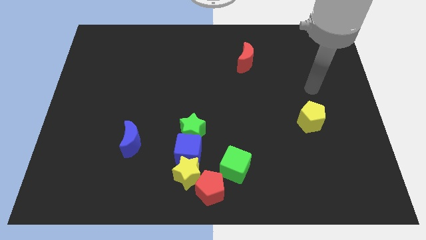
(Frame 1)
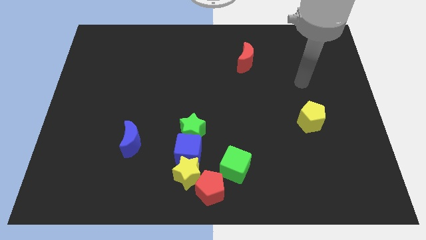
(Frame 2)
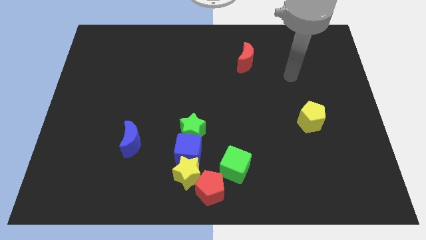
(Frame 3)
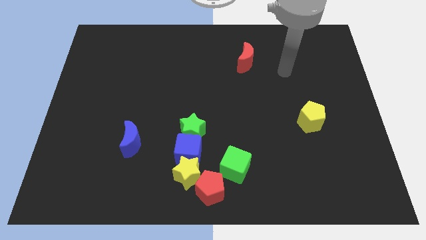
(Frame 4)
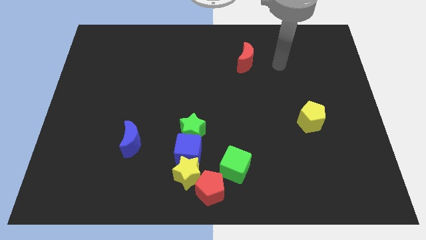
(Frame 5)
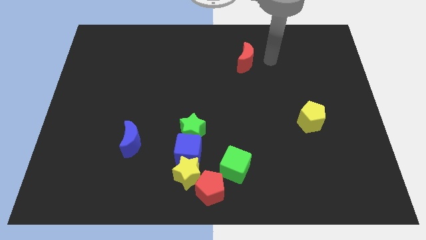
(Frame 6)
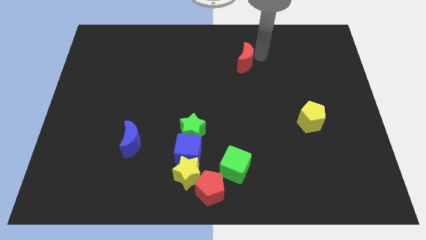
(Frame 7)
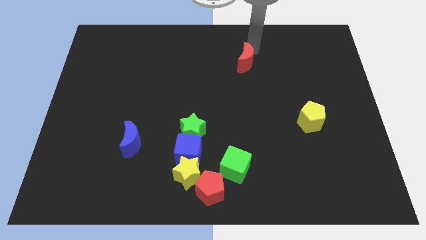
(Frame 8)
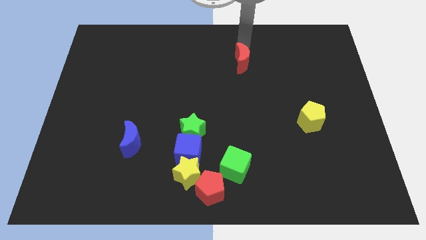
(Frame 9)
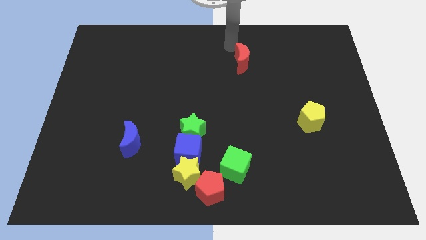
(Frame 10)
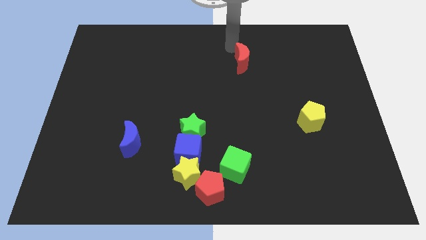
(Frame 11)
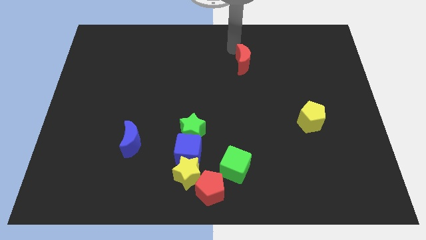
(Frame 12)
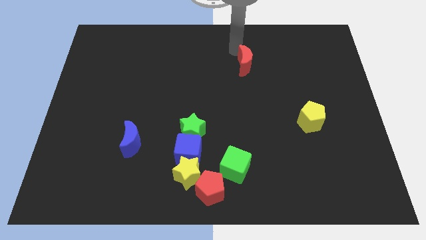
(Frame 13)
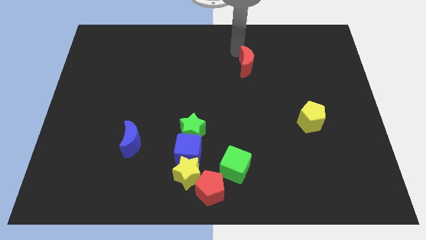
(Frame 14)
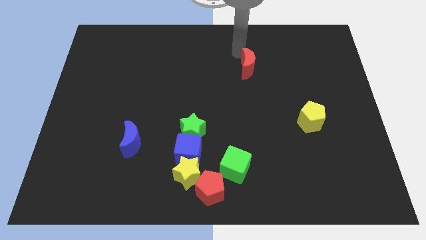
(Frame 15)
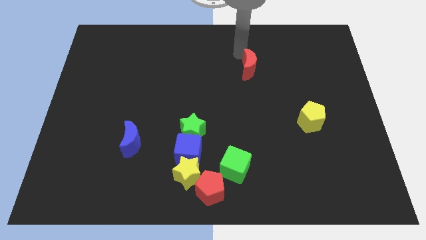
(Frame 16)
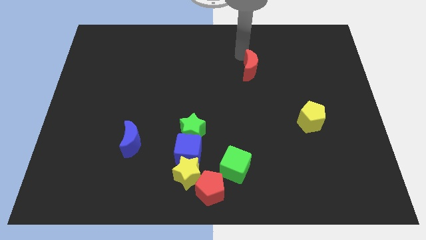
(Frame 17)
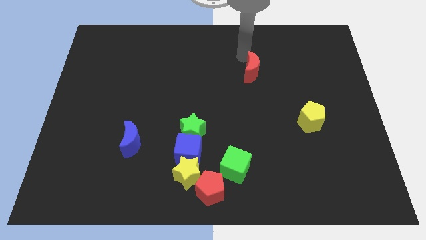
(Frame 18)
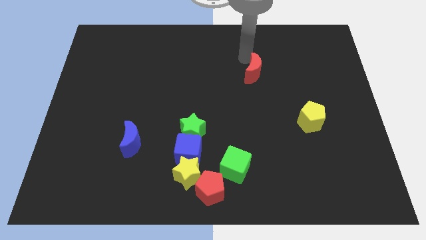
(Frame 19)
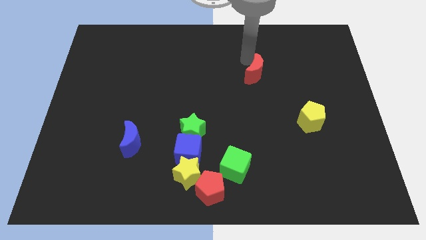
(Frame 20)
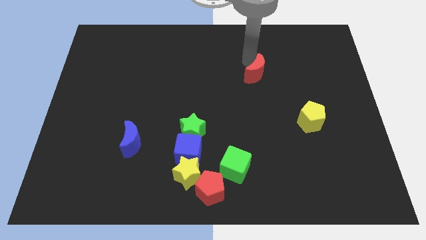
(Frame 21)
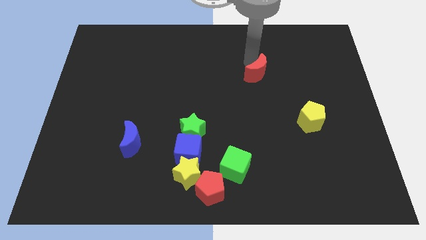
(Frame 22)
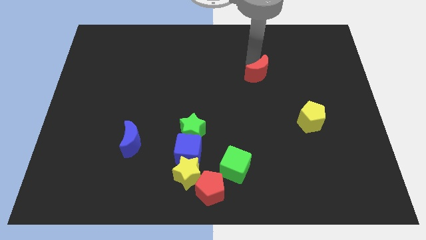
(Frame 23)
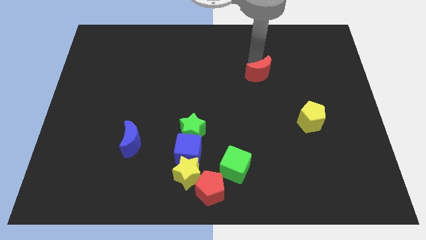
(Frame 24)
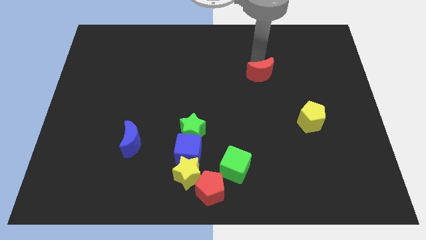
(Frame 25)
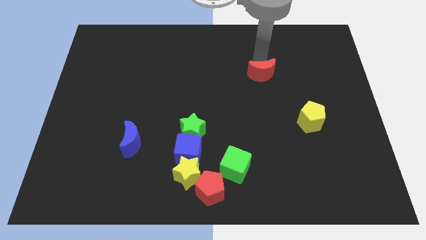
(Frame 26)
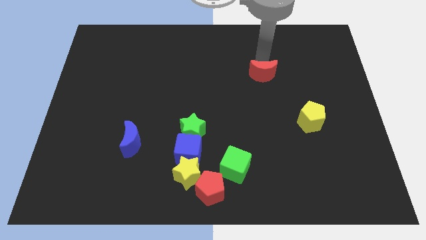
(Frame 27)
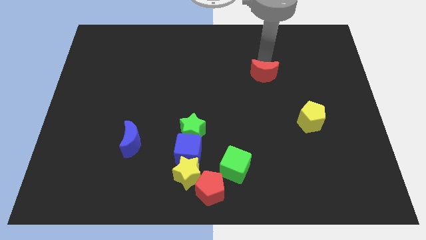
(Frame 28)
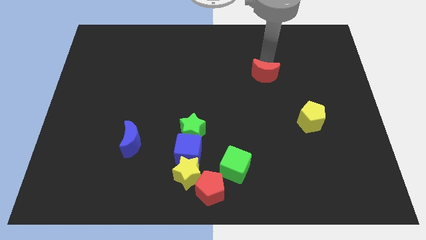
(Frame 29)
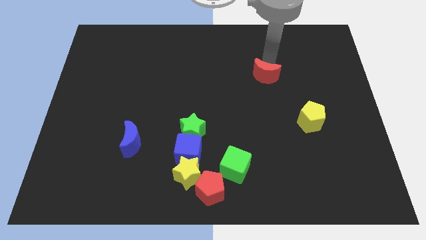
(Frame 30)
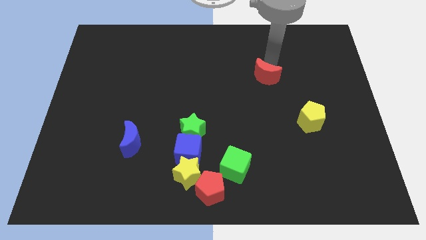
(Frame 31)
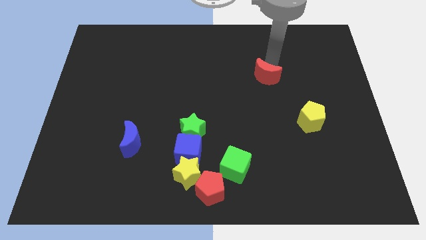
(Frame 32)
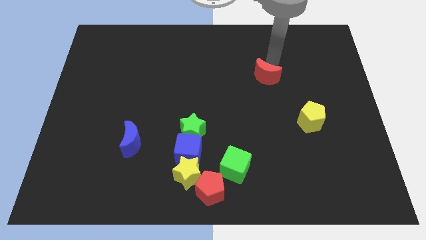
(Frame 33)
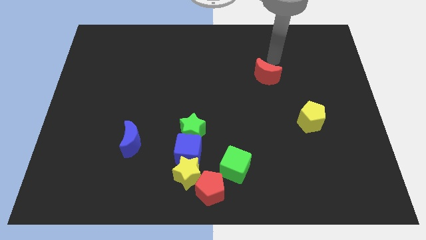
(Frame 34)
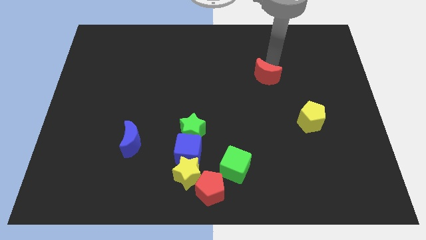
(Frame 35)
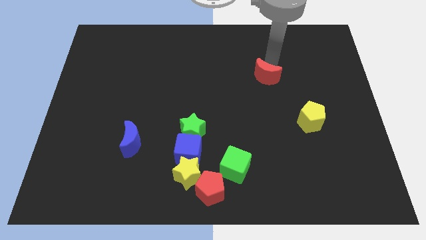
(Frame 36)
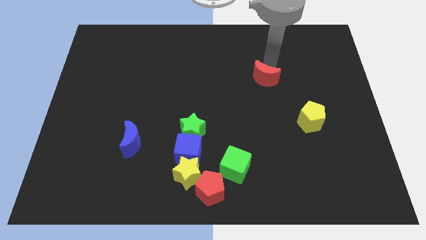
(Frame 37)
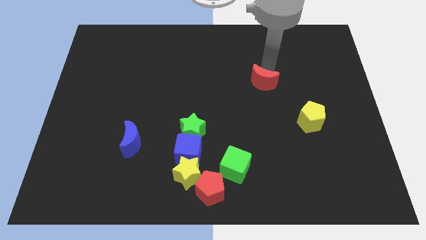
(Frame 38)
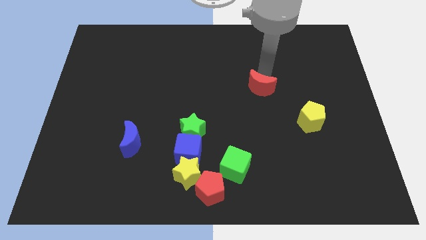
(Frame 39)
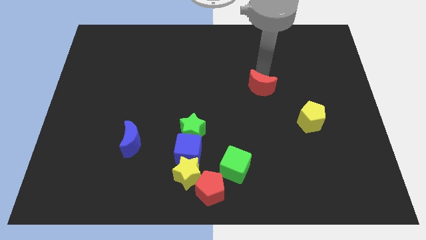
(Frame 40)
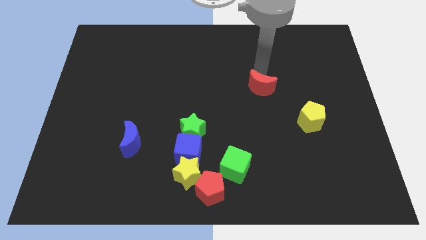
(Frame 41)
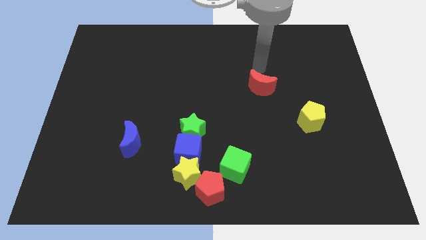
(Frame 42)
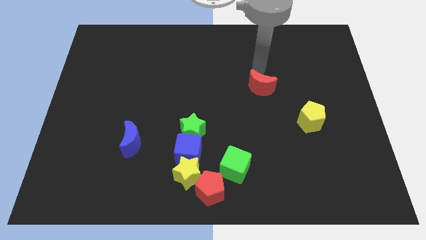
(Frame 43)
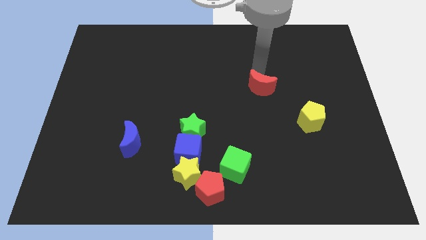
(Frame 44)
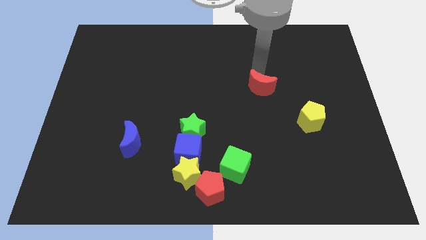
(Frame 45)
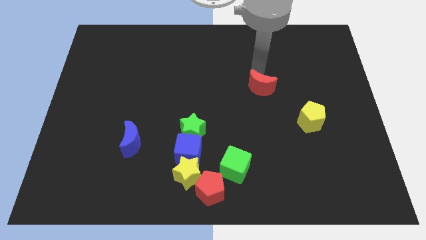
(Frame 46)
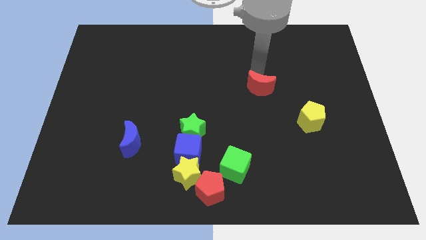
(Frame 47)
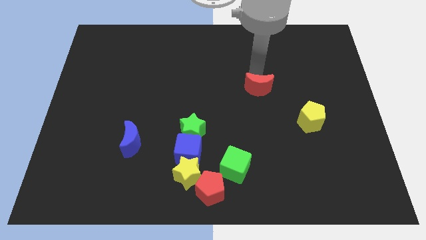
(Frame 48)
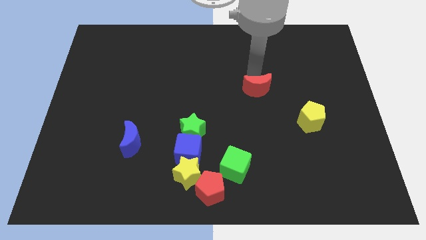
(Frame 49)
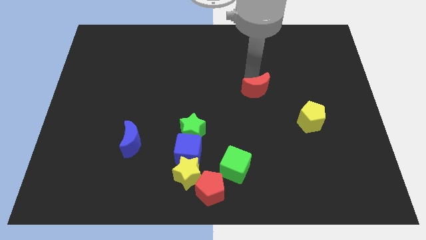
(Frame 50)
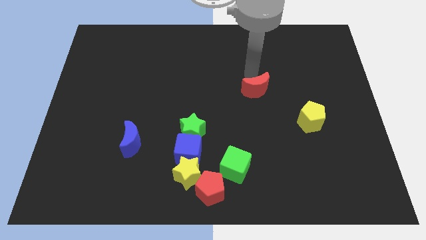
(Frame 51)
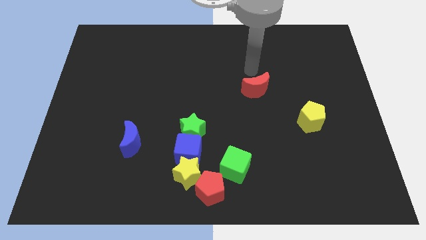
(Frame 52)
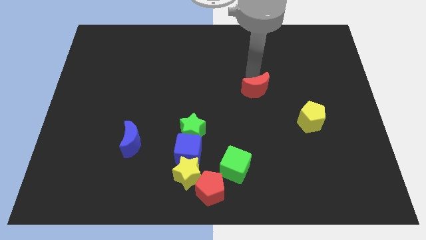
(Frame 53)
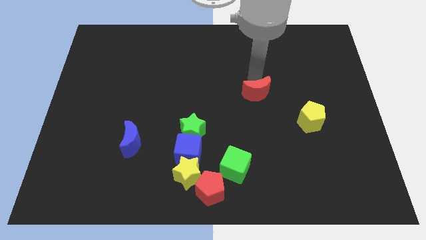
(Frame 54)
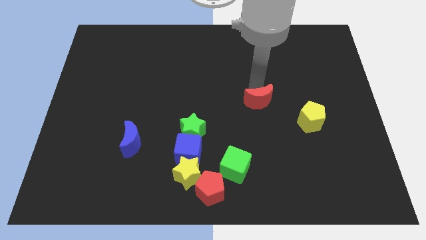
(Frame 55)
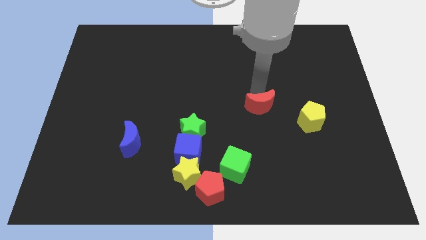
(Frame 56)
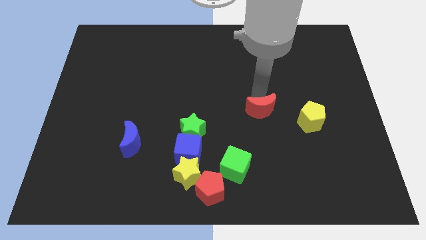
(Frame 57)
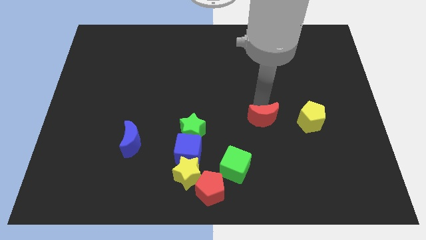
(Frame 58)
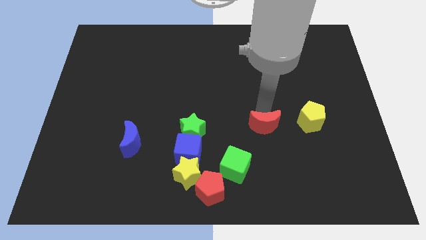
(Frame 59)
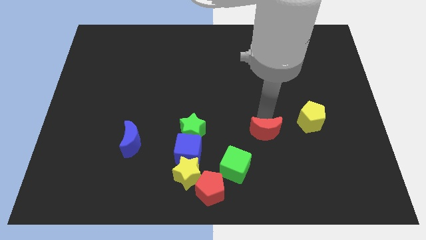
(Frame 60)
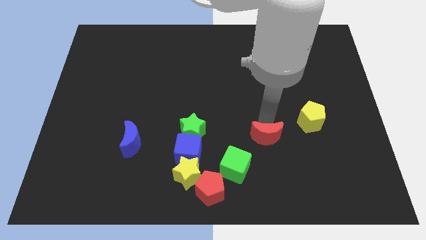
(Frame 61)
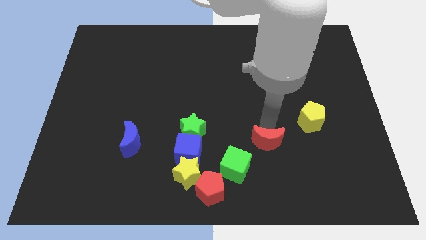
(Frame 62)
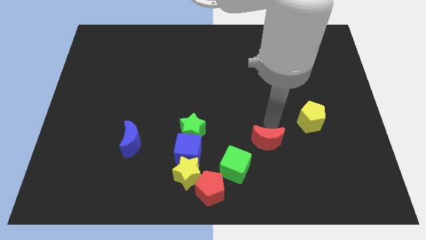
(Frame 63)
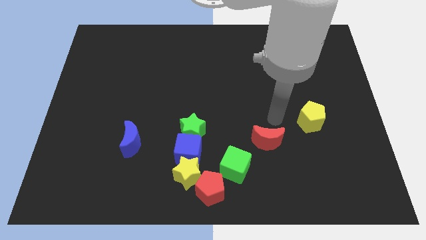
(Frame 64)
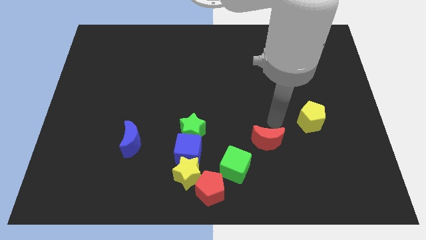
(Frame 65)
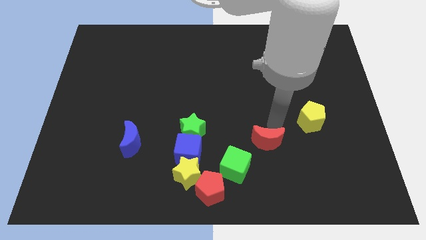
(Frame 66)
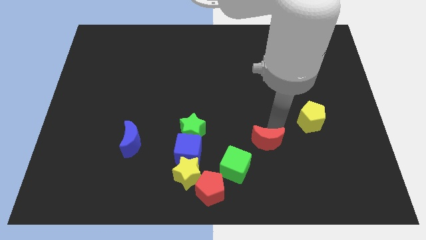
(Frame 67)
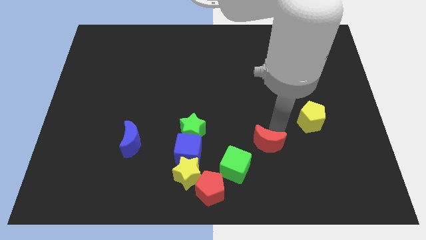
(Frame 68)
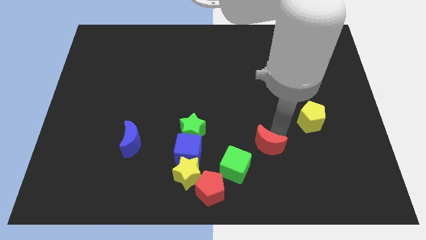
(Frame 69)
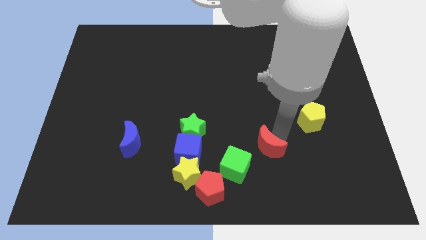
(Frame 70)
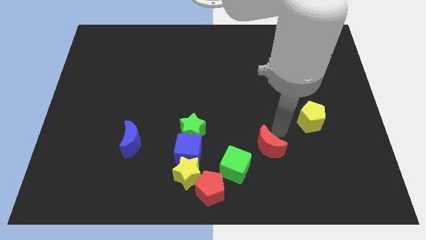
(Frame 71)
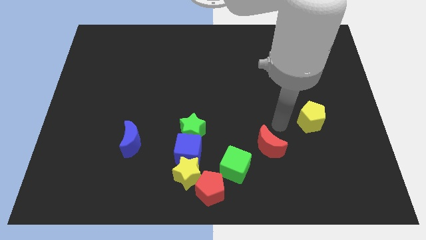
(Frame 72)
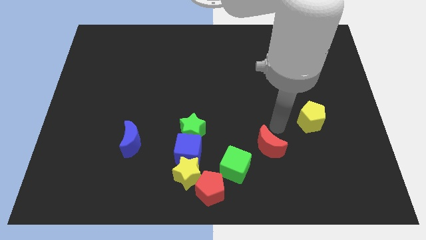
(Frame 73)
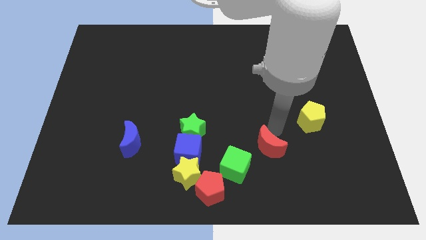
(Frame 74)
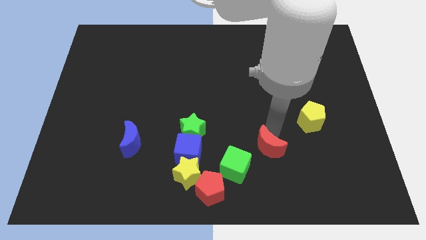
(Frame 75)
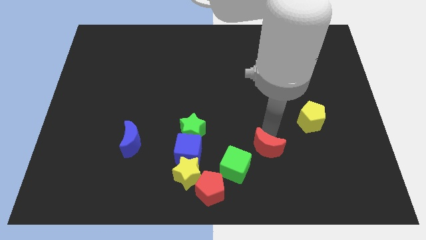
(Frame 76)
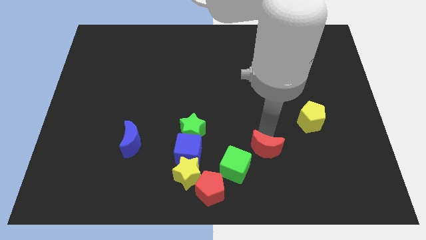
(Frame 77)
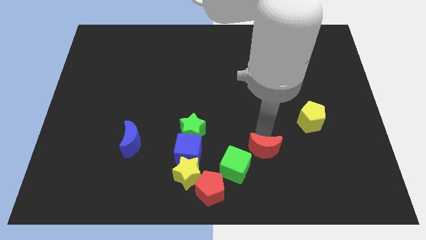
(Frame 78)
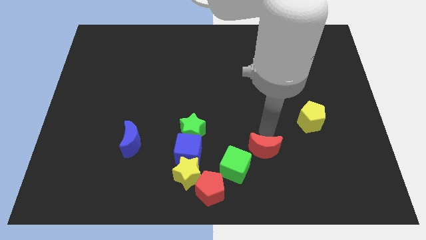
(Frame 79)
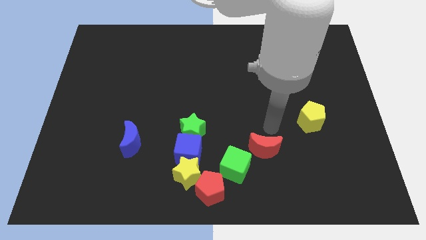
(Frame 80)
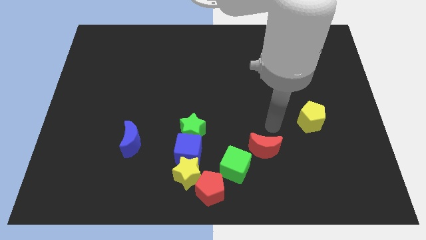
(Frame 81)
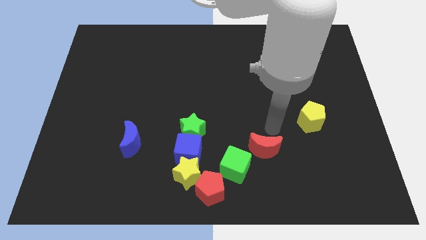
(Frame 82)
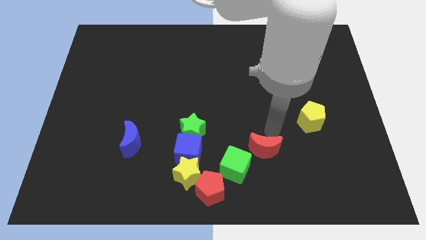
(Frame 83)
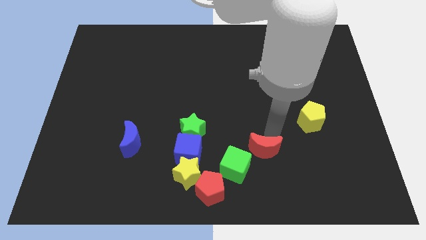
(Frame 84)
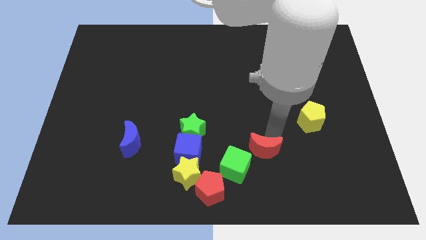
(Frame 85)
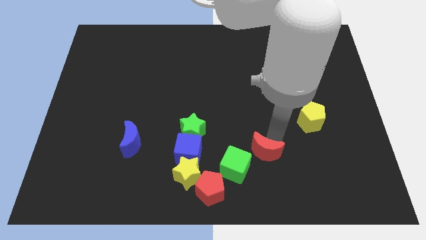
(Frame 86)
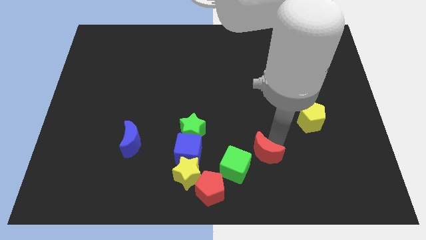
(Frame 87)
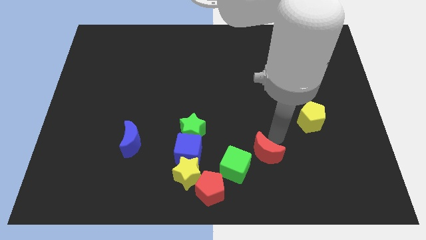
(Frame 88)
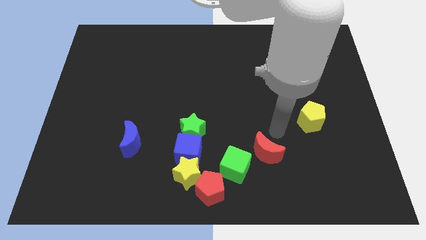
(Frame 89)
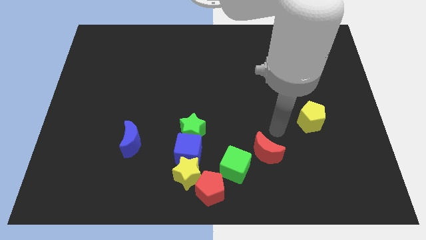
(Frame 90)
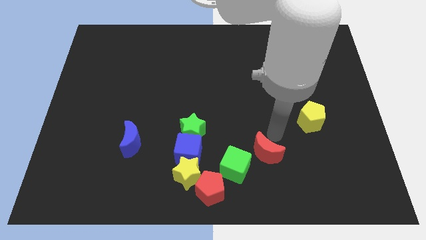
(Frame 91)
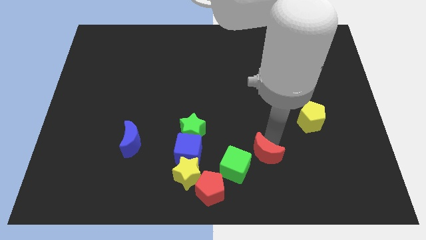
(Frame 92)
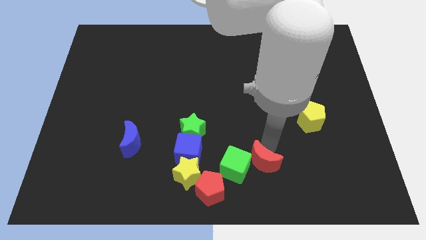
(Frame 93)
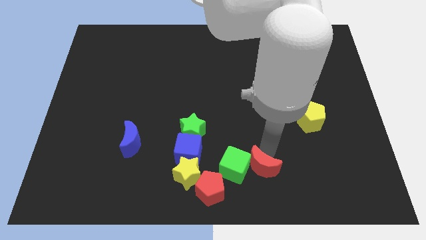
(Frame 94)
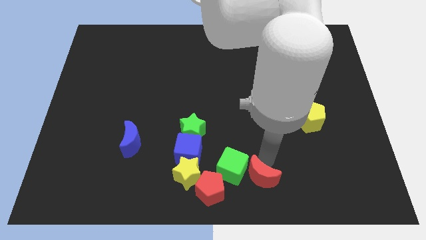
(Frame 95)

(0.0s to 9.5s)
put the red moon to the bottom side
